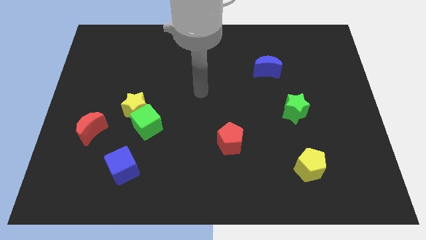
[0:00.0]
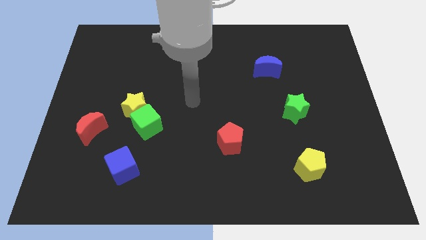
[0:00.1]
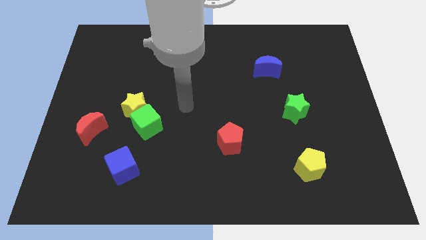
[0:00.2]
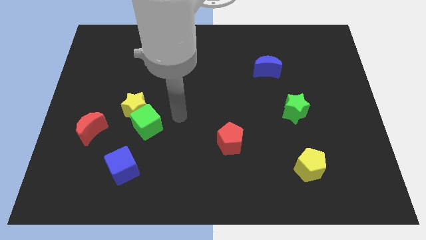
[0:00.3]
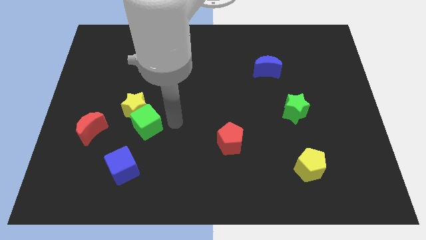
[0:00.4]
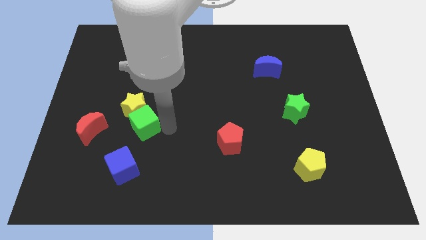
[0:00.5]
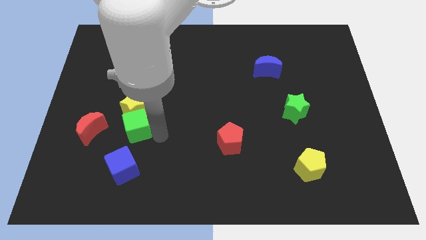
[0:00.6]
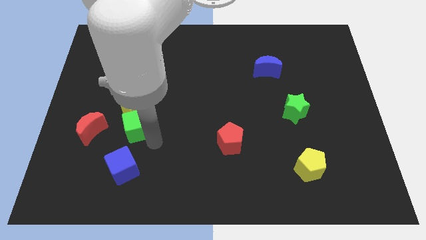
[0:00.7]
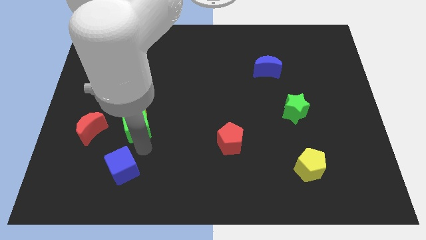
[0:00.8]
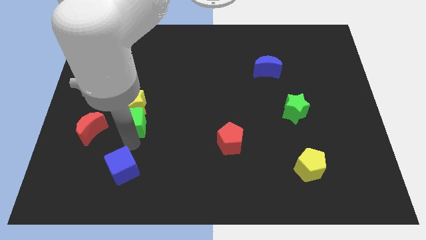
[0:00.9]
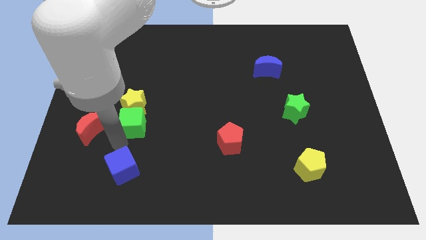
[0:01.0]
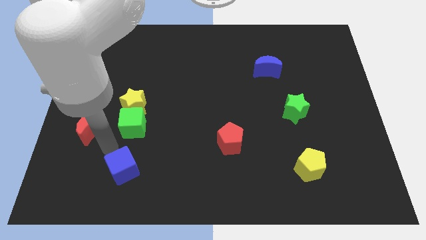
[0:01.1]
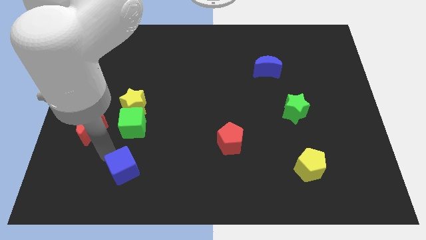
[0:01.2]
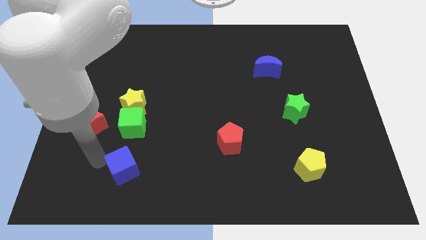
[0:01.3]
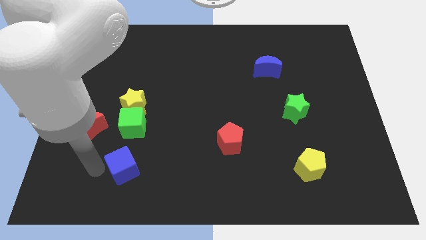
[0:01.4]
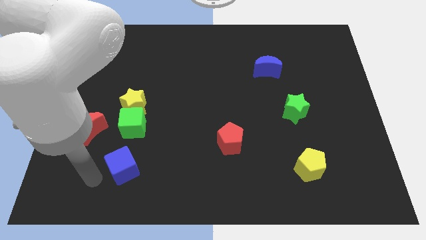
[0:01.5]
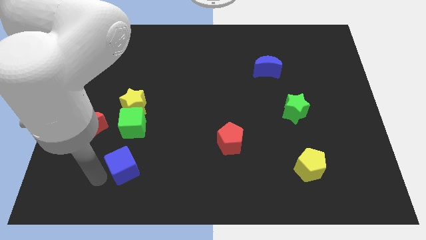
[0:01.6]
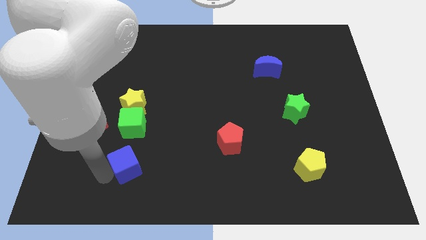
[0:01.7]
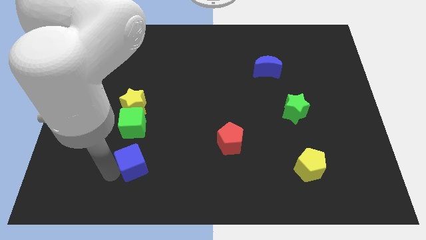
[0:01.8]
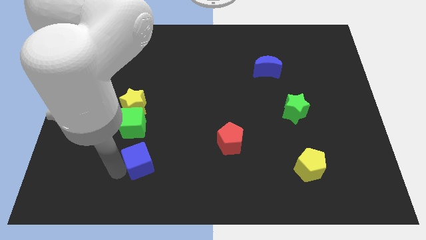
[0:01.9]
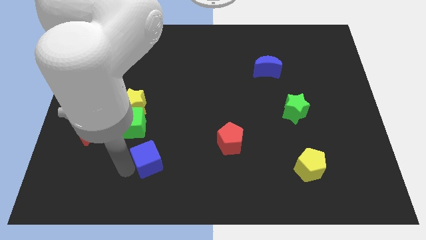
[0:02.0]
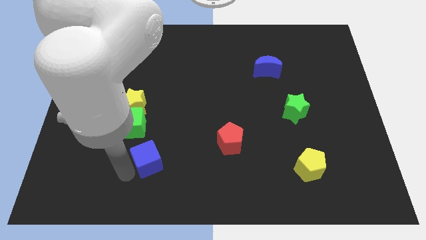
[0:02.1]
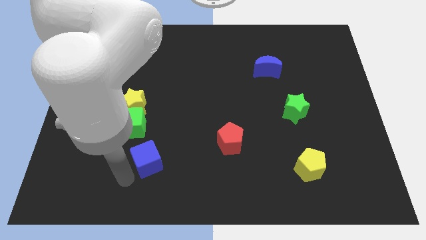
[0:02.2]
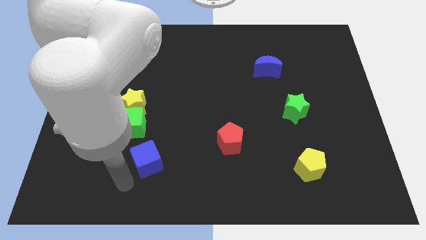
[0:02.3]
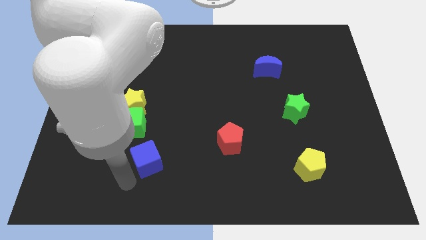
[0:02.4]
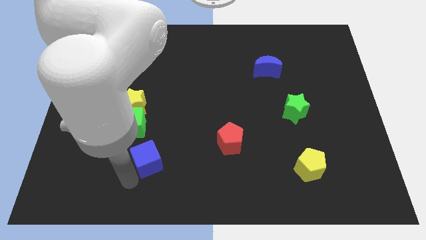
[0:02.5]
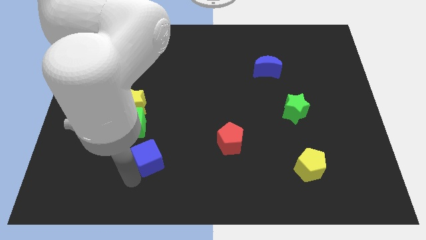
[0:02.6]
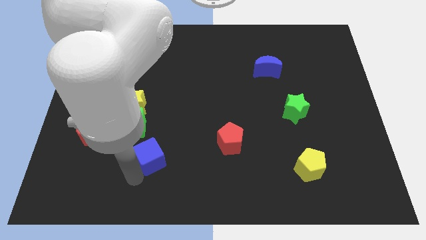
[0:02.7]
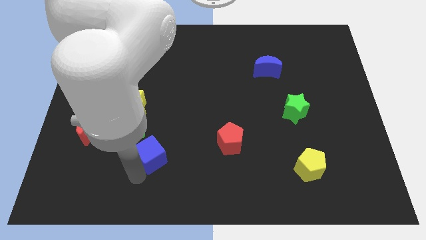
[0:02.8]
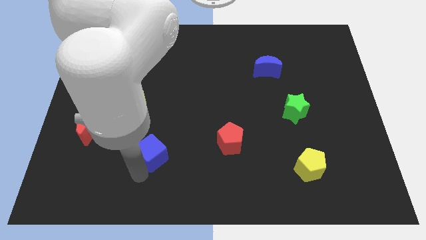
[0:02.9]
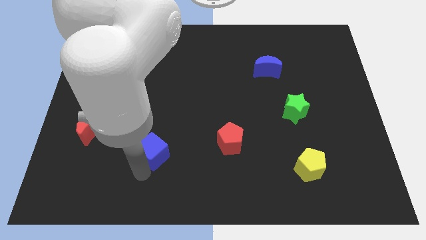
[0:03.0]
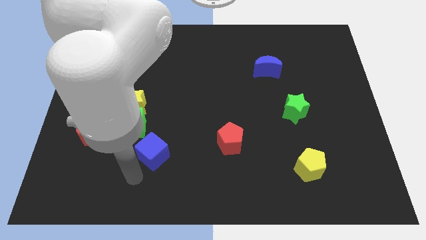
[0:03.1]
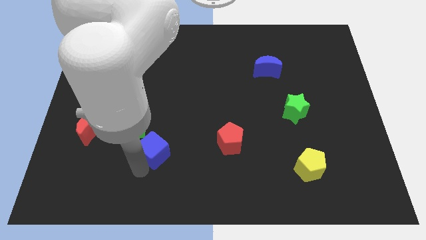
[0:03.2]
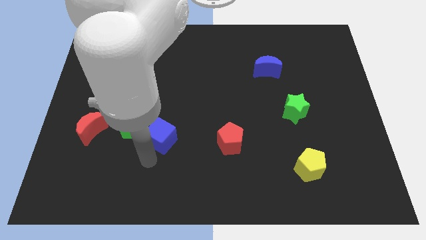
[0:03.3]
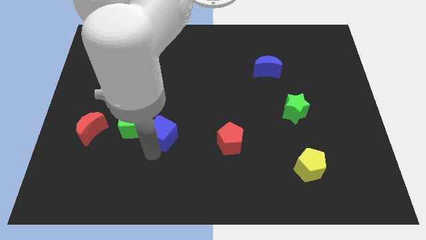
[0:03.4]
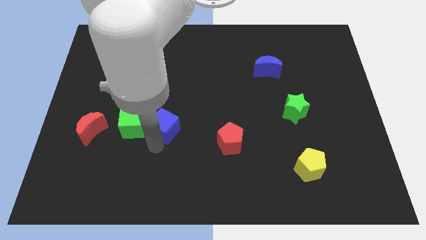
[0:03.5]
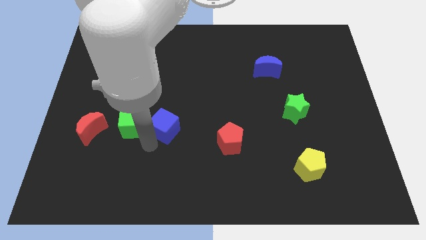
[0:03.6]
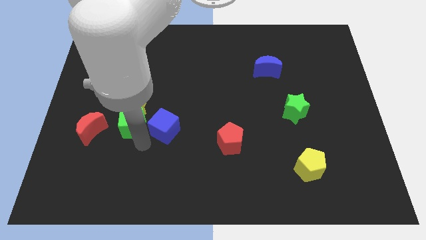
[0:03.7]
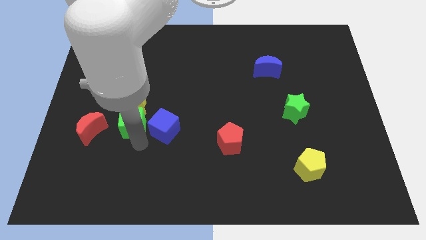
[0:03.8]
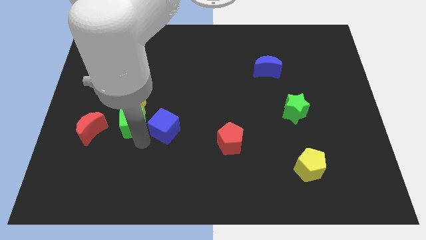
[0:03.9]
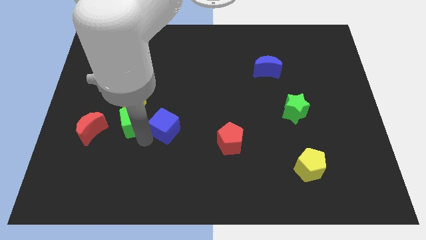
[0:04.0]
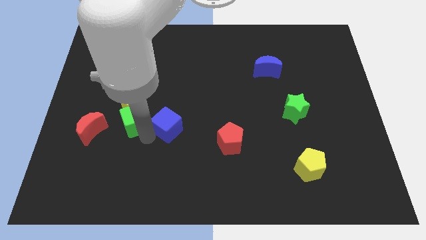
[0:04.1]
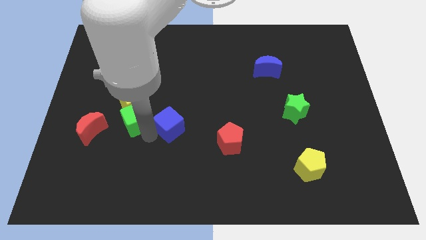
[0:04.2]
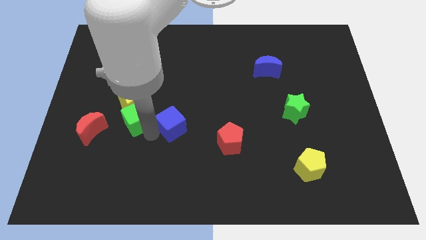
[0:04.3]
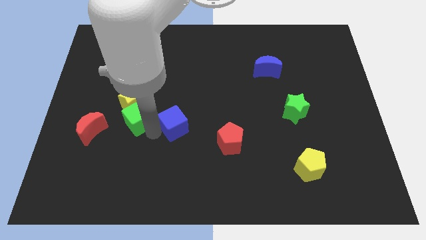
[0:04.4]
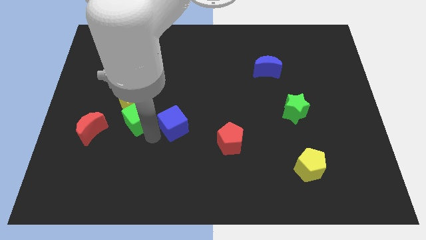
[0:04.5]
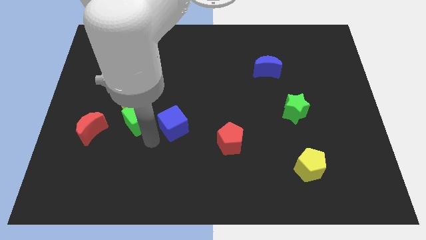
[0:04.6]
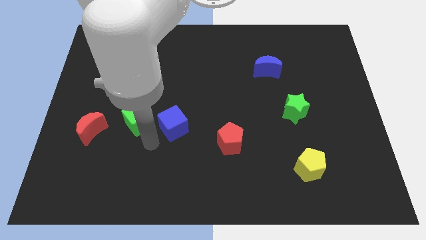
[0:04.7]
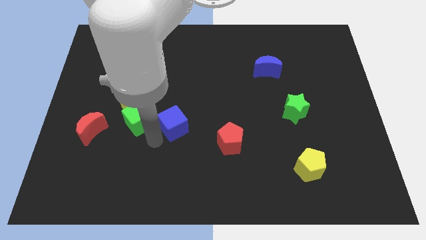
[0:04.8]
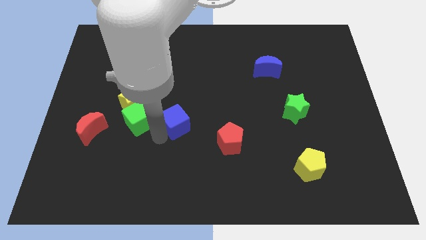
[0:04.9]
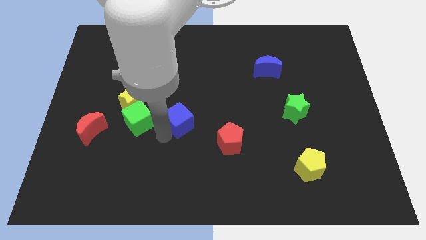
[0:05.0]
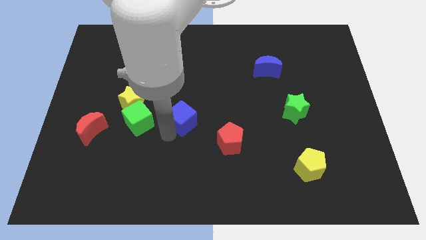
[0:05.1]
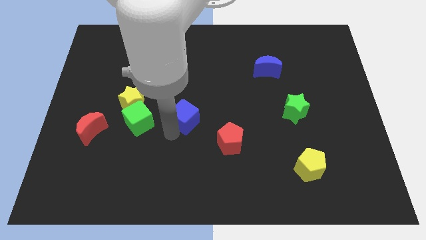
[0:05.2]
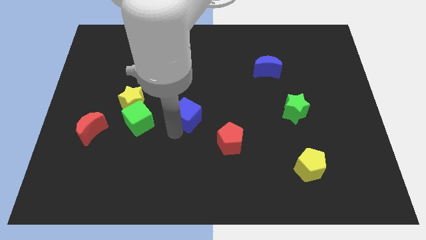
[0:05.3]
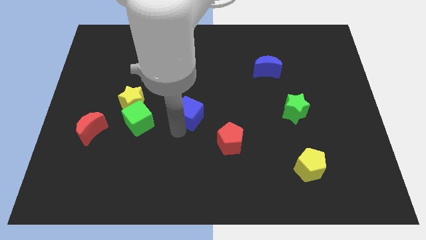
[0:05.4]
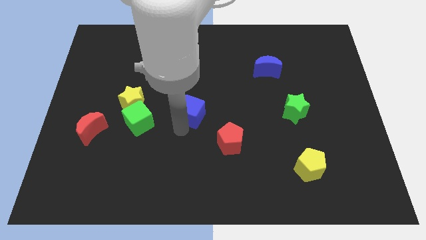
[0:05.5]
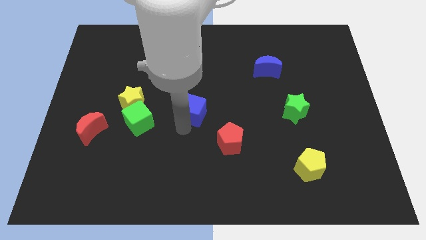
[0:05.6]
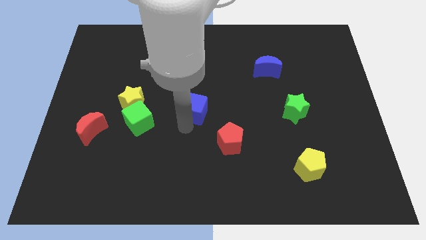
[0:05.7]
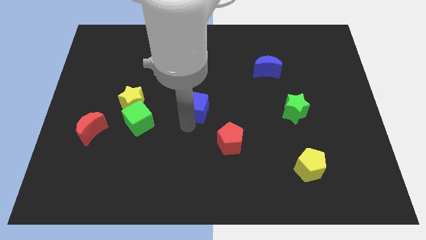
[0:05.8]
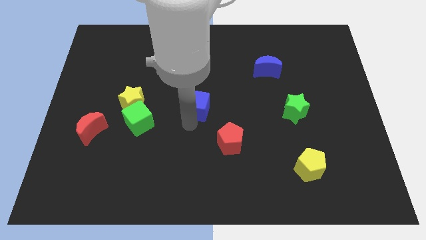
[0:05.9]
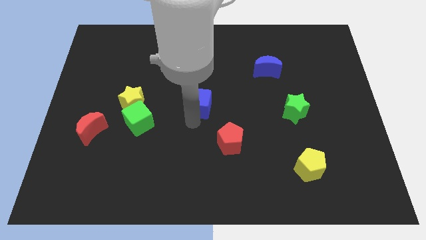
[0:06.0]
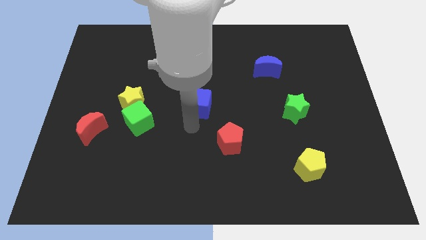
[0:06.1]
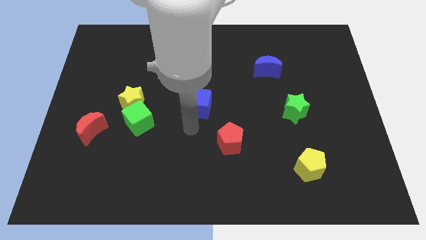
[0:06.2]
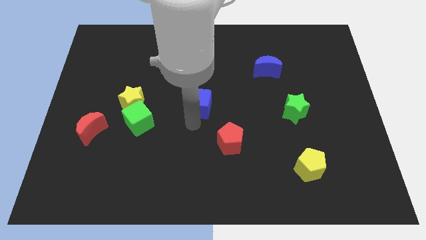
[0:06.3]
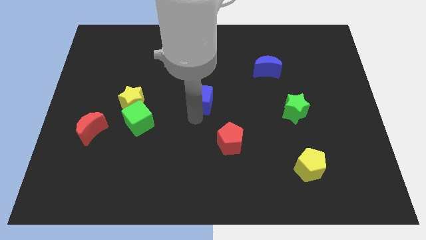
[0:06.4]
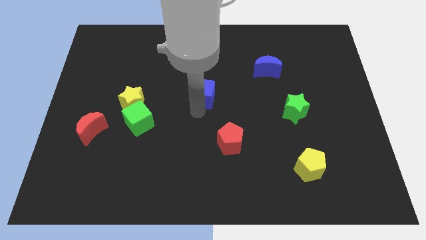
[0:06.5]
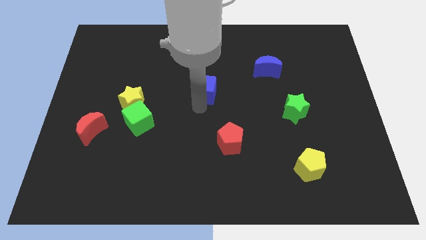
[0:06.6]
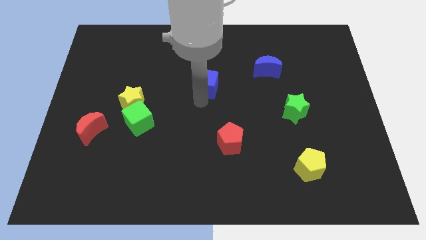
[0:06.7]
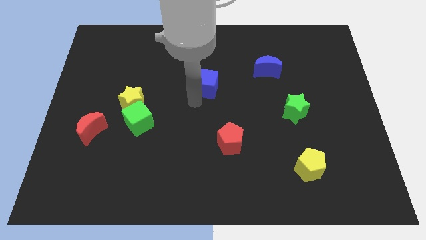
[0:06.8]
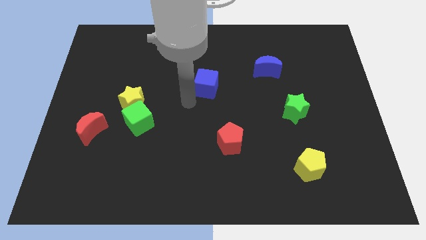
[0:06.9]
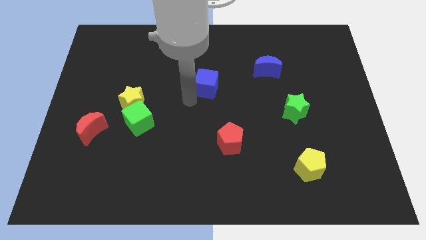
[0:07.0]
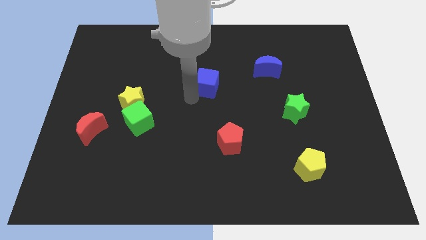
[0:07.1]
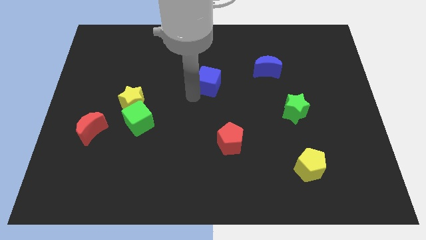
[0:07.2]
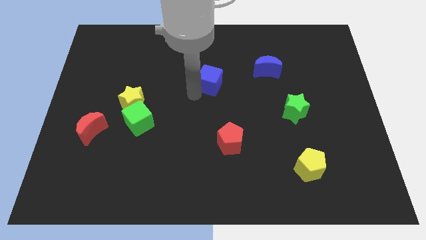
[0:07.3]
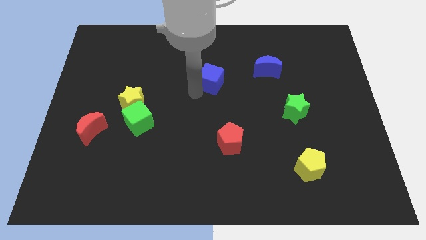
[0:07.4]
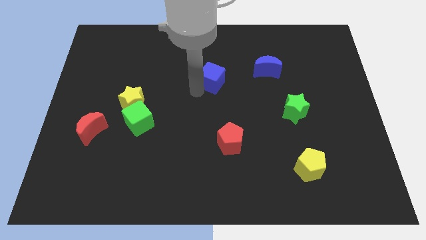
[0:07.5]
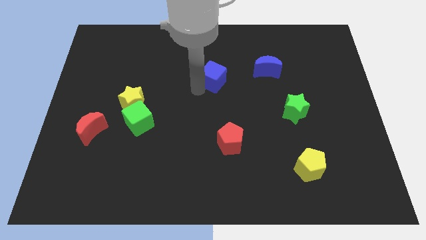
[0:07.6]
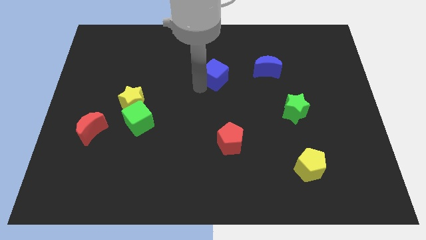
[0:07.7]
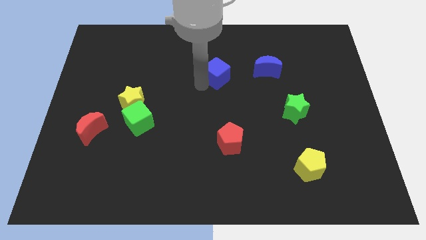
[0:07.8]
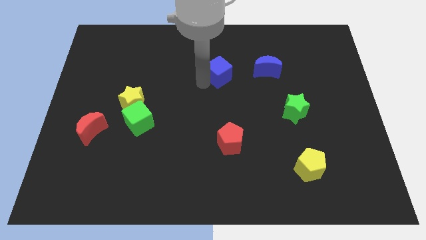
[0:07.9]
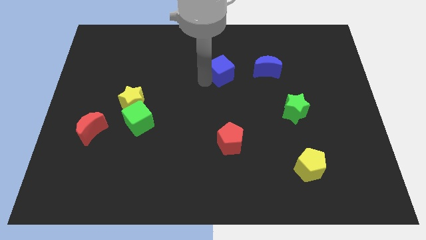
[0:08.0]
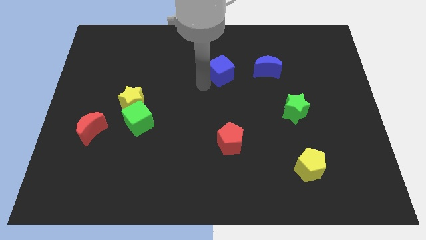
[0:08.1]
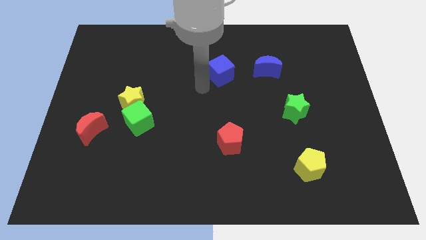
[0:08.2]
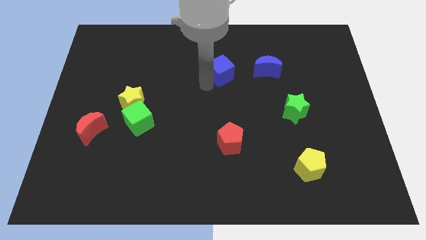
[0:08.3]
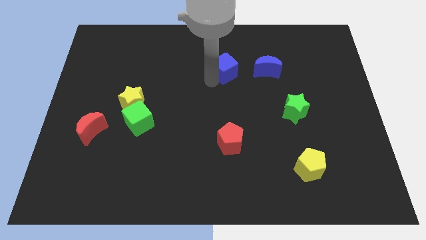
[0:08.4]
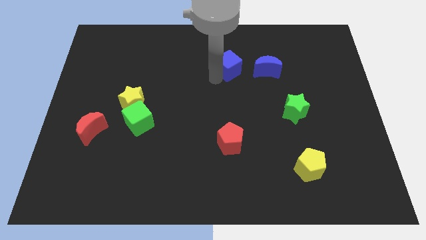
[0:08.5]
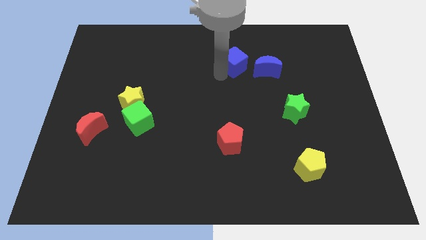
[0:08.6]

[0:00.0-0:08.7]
slide the blue cube to the top left of the blue moon
